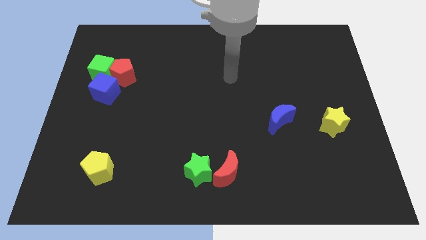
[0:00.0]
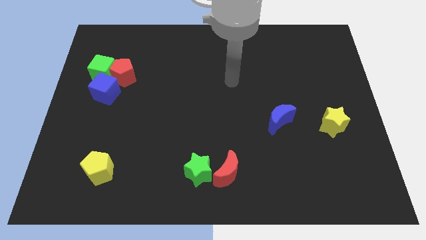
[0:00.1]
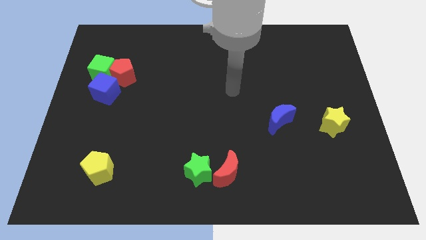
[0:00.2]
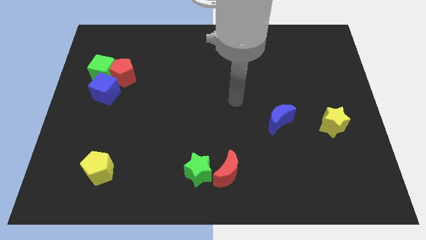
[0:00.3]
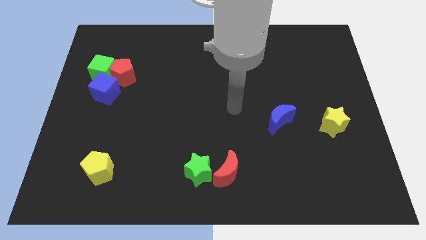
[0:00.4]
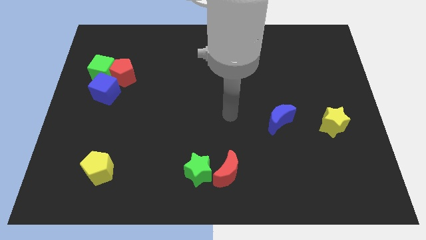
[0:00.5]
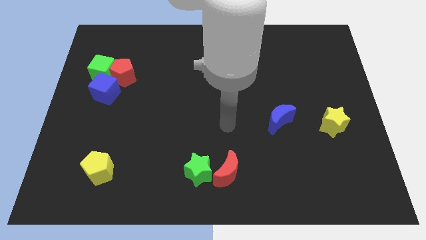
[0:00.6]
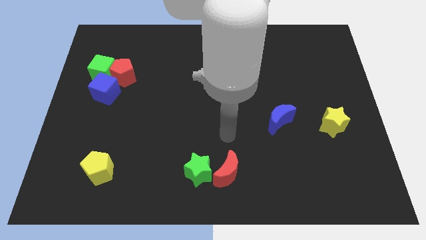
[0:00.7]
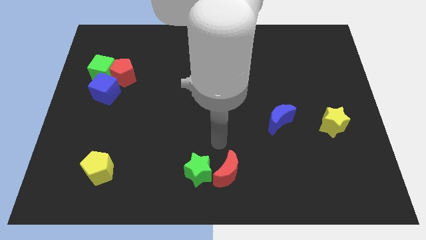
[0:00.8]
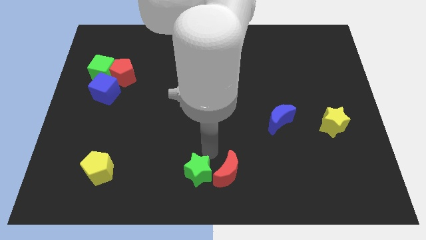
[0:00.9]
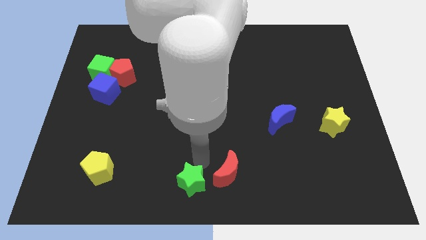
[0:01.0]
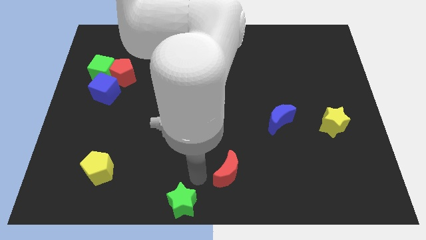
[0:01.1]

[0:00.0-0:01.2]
move the red moon away from the green star

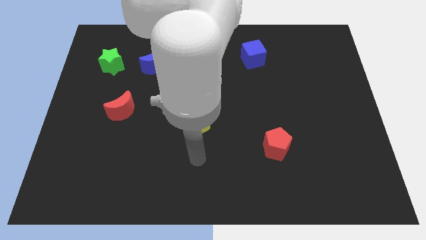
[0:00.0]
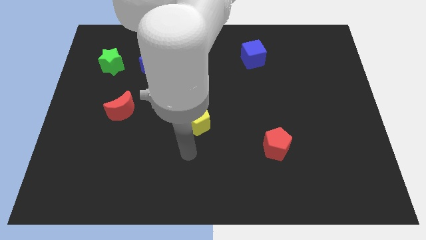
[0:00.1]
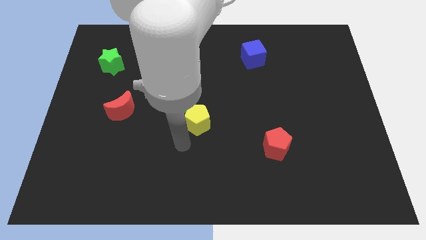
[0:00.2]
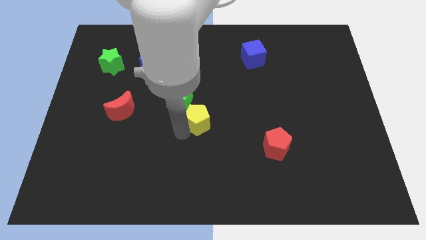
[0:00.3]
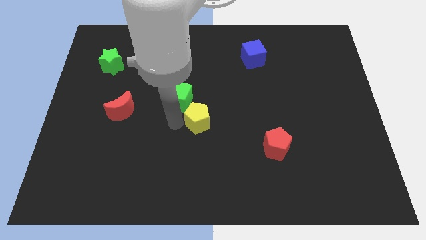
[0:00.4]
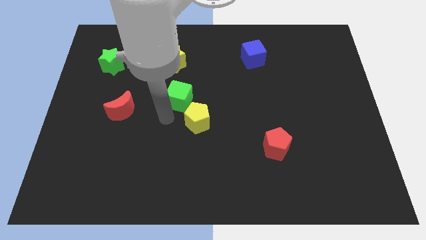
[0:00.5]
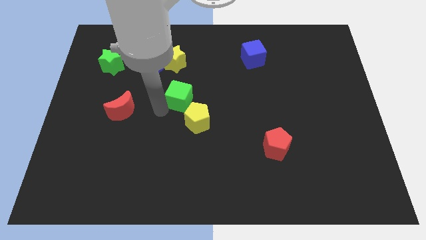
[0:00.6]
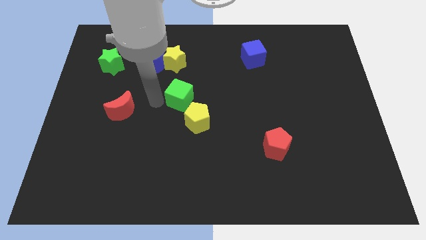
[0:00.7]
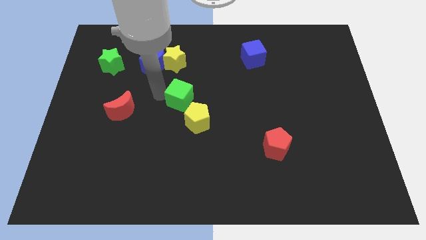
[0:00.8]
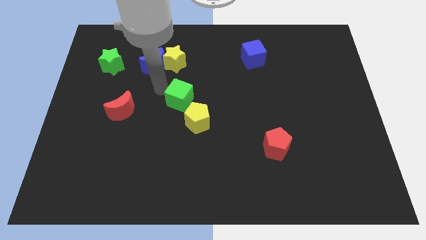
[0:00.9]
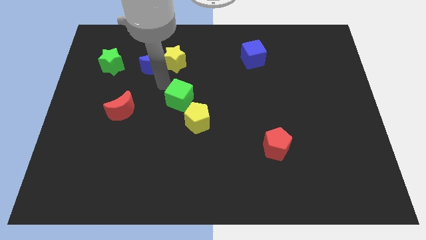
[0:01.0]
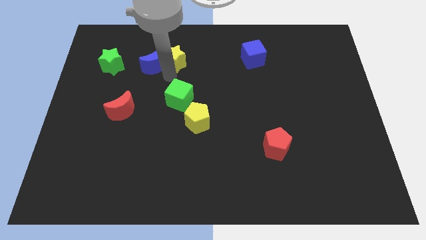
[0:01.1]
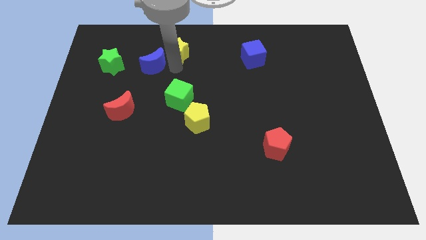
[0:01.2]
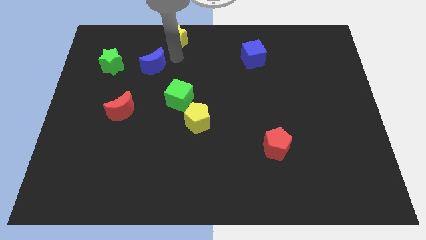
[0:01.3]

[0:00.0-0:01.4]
move the blue moon away from the yellow star

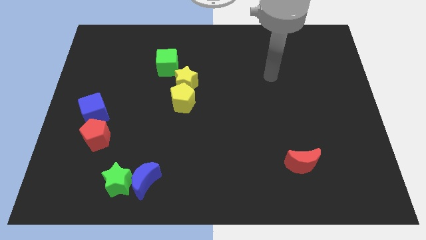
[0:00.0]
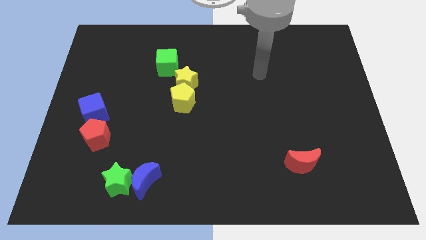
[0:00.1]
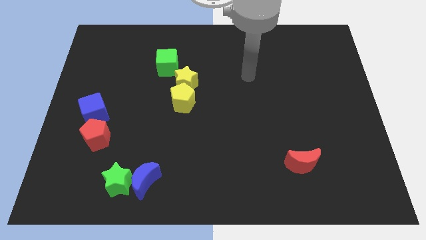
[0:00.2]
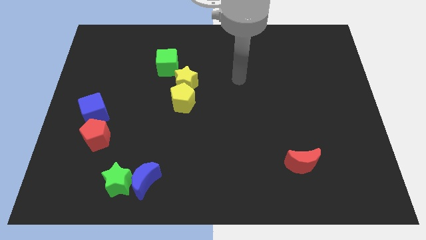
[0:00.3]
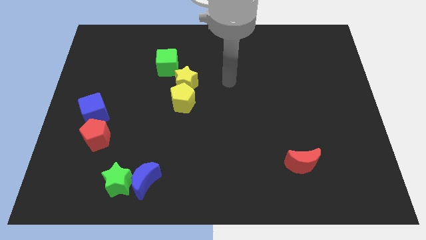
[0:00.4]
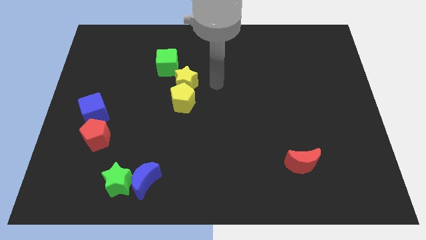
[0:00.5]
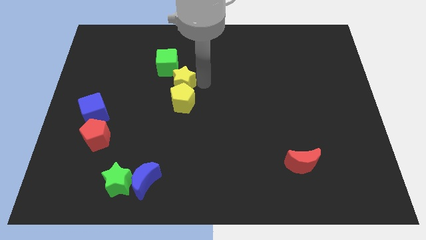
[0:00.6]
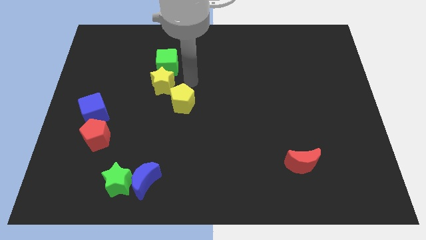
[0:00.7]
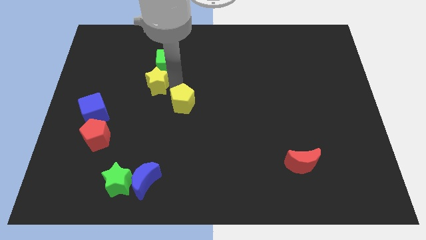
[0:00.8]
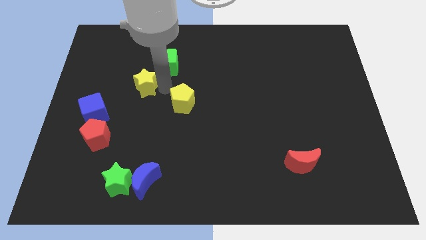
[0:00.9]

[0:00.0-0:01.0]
pull the yellow pentagon apart from the yellow star

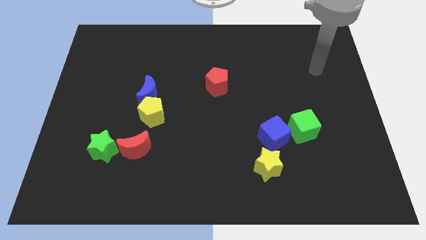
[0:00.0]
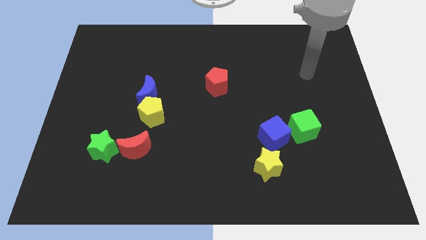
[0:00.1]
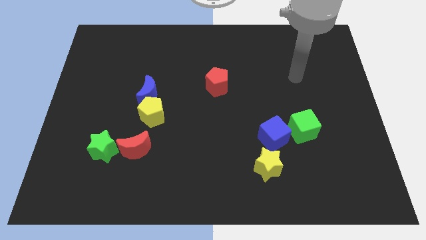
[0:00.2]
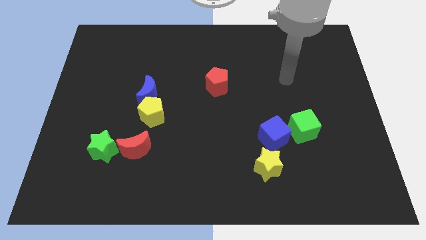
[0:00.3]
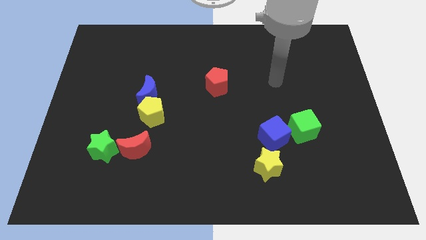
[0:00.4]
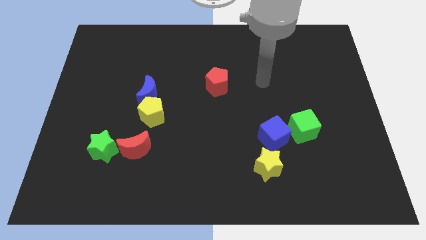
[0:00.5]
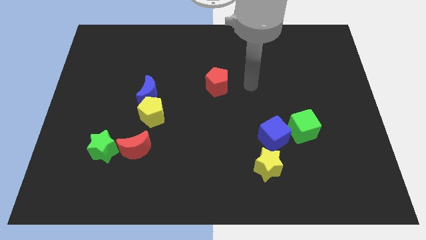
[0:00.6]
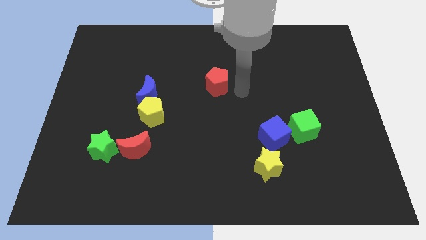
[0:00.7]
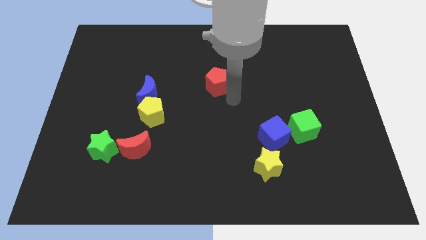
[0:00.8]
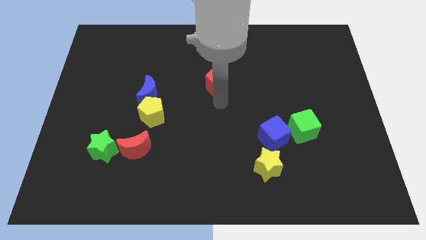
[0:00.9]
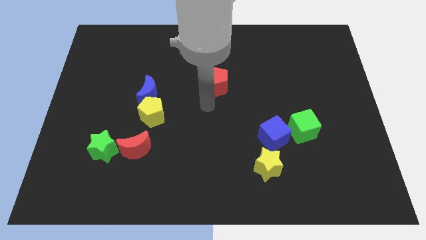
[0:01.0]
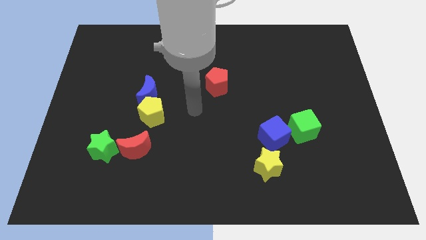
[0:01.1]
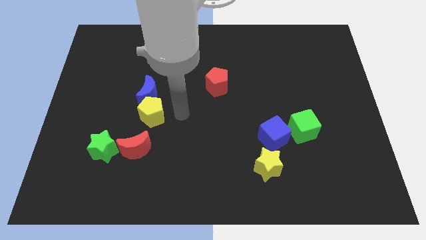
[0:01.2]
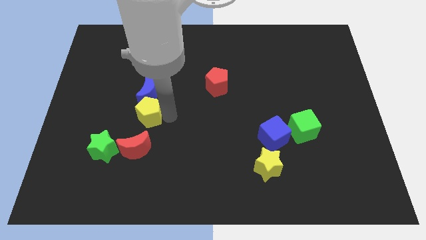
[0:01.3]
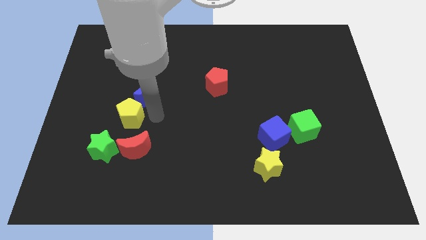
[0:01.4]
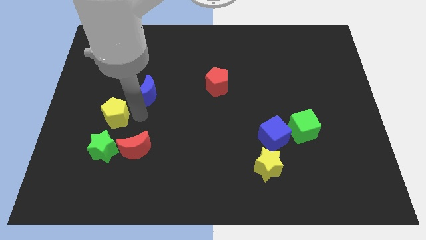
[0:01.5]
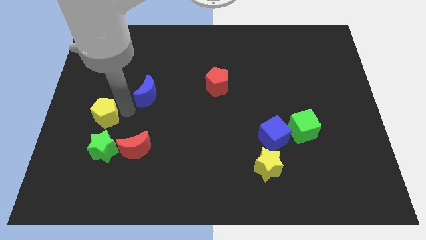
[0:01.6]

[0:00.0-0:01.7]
move the blue moon away from the yellow pentagon

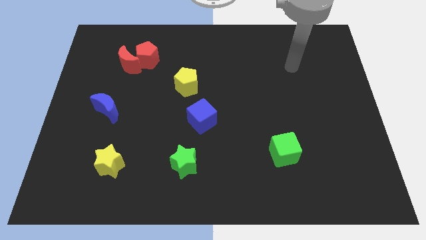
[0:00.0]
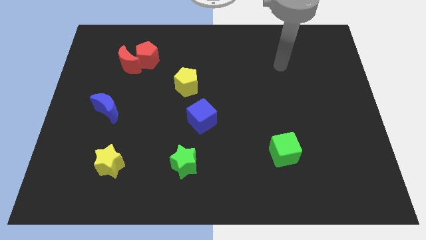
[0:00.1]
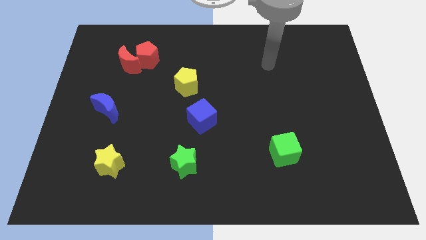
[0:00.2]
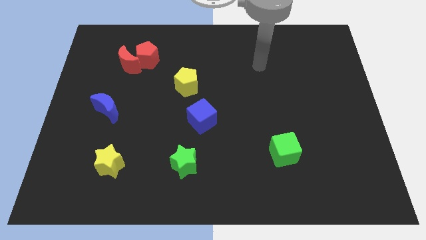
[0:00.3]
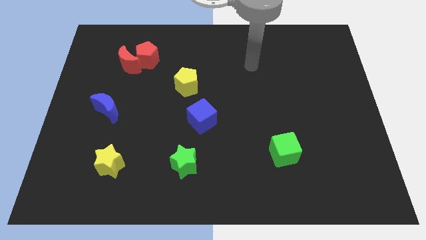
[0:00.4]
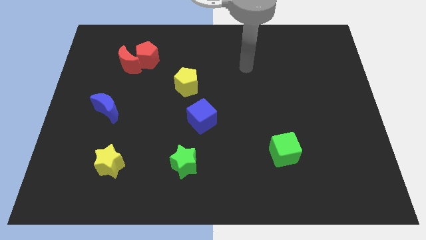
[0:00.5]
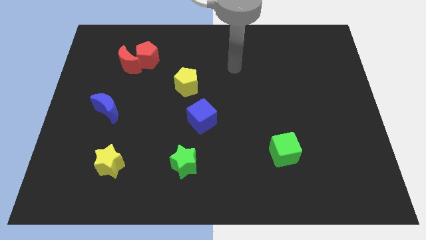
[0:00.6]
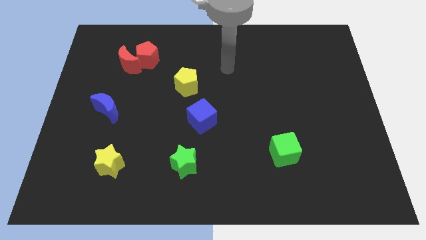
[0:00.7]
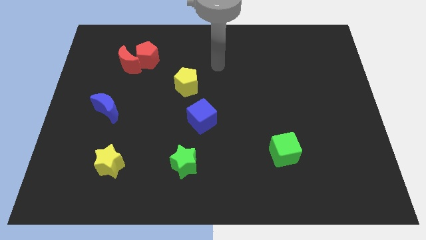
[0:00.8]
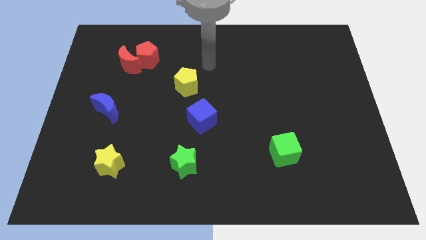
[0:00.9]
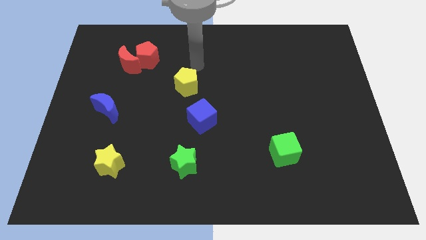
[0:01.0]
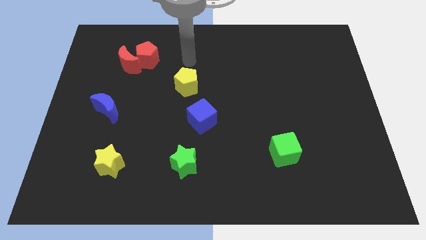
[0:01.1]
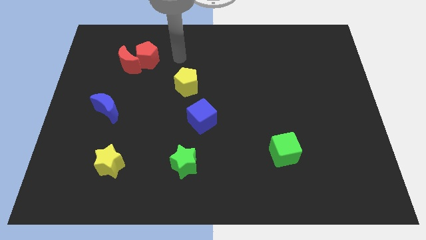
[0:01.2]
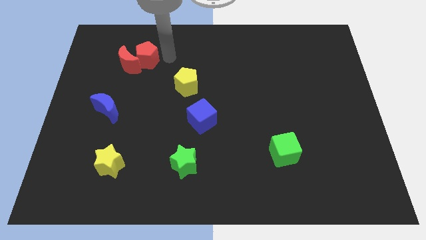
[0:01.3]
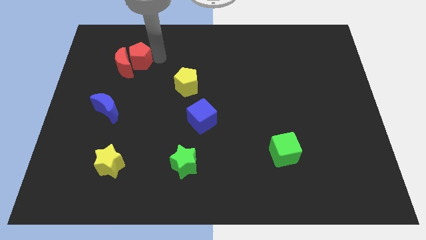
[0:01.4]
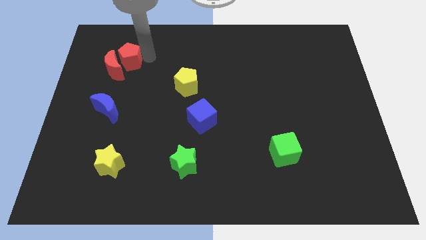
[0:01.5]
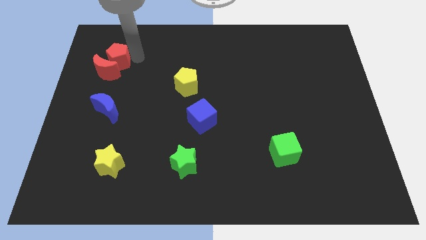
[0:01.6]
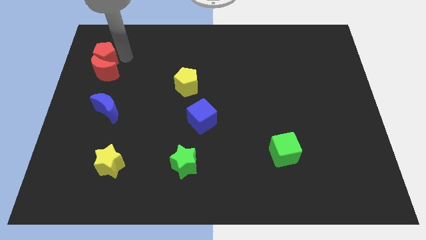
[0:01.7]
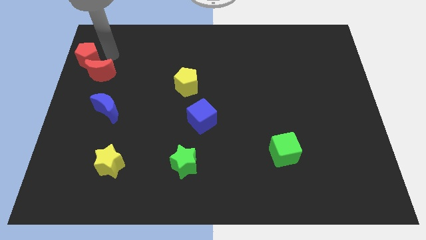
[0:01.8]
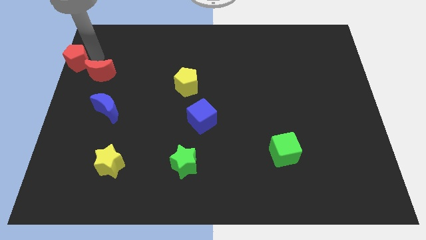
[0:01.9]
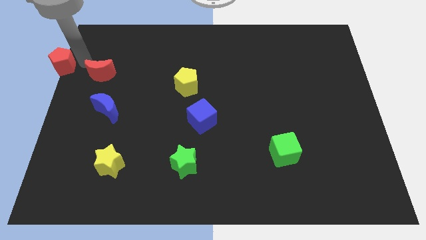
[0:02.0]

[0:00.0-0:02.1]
separate the red moon from the red pentagon

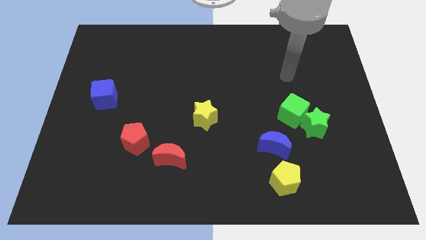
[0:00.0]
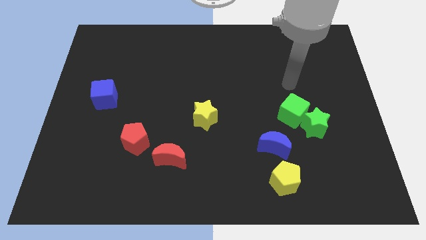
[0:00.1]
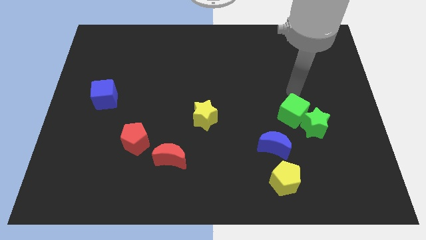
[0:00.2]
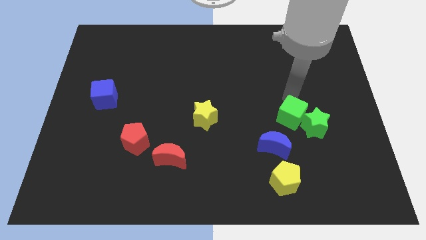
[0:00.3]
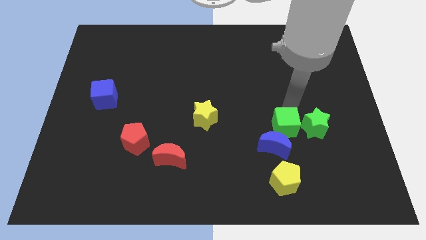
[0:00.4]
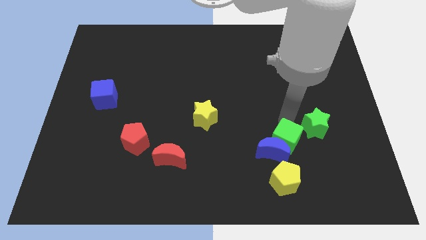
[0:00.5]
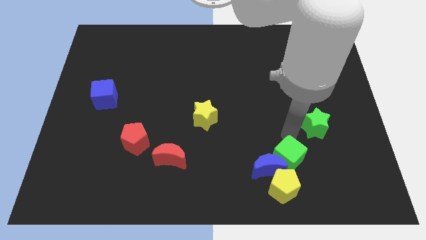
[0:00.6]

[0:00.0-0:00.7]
separate the green star from the green cube

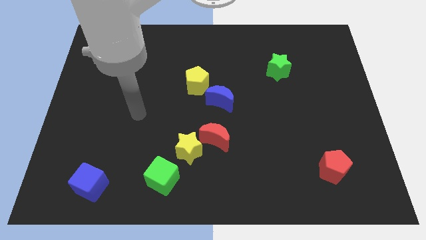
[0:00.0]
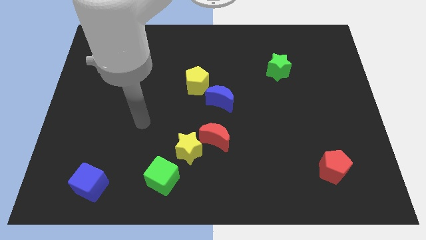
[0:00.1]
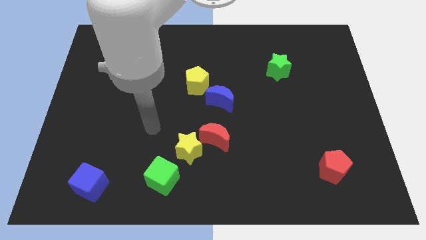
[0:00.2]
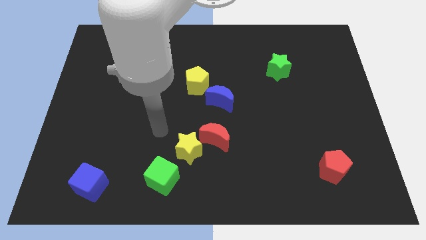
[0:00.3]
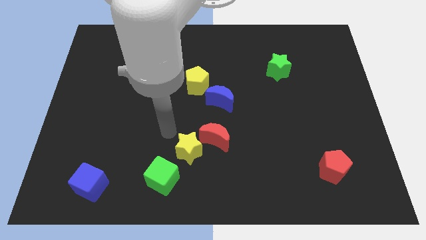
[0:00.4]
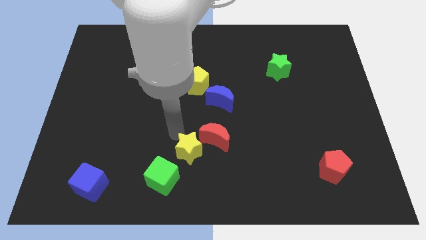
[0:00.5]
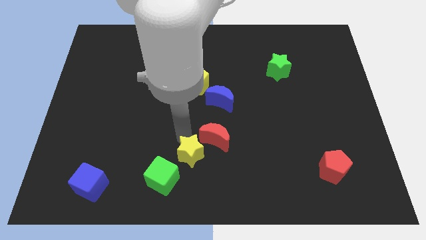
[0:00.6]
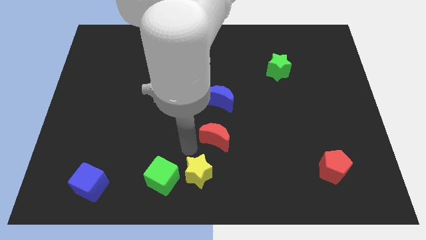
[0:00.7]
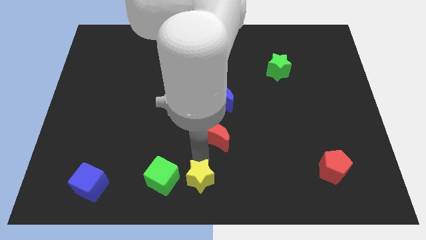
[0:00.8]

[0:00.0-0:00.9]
pull the red moon apart from the yellow star

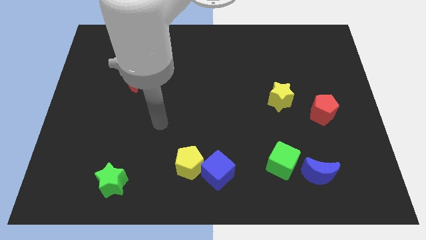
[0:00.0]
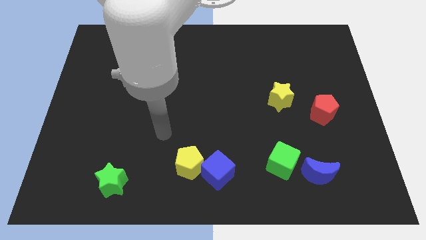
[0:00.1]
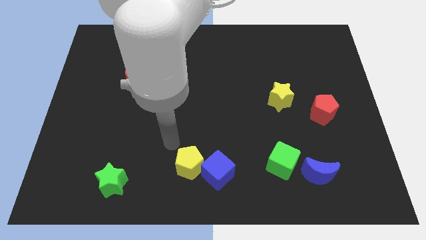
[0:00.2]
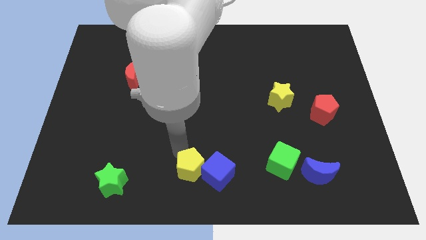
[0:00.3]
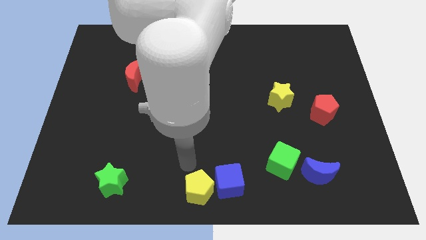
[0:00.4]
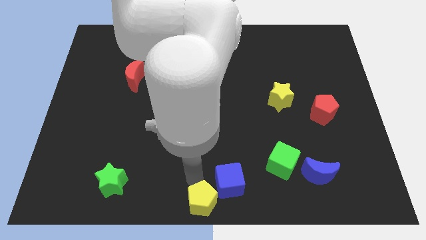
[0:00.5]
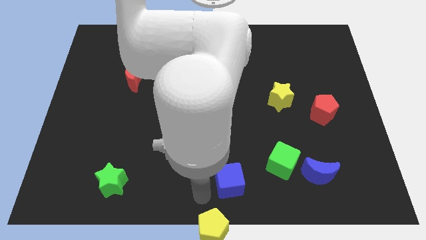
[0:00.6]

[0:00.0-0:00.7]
move the blue cube away from the yellow pentagon
